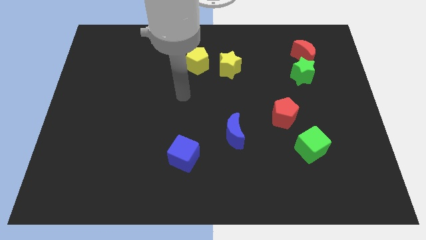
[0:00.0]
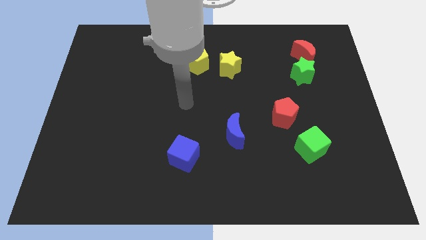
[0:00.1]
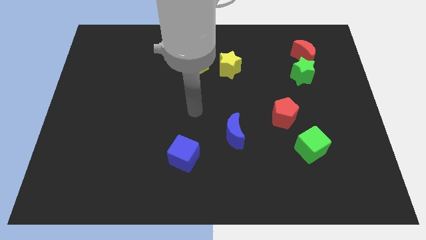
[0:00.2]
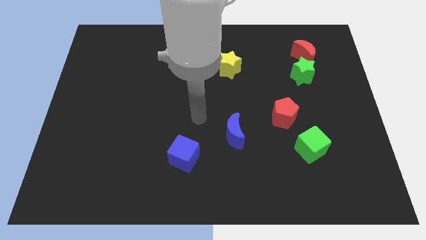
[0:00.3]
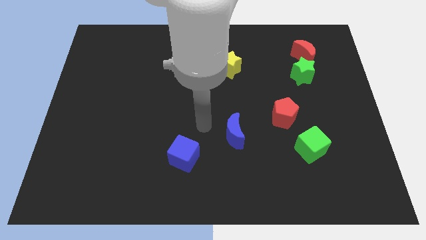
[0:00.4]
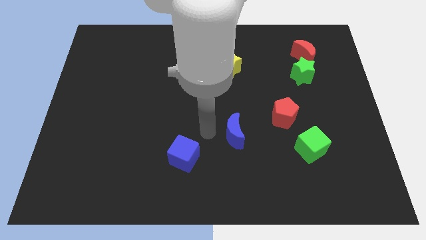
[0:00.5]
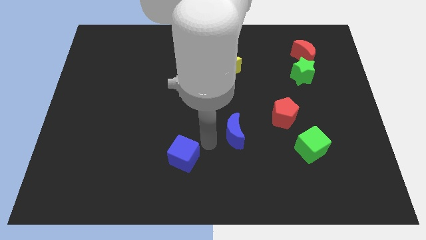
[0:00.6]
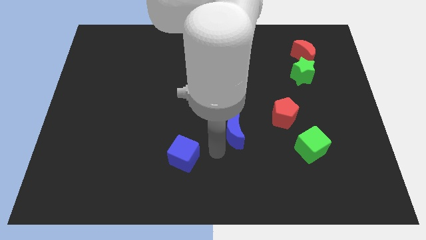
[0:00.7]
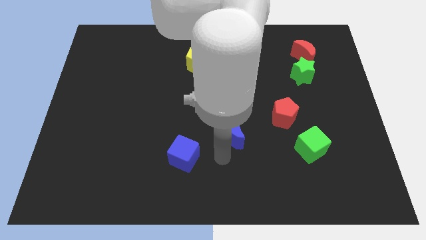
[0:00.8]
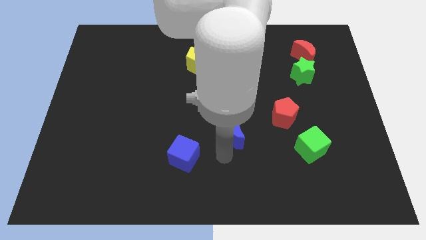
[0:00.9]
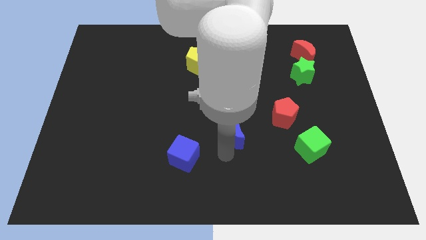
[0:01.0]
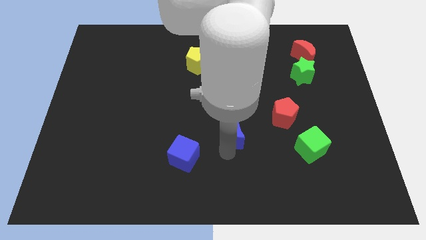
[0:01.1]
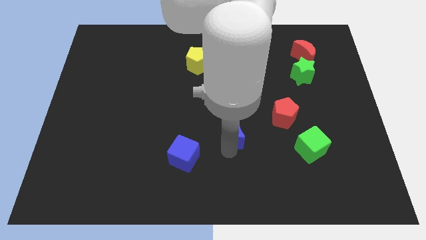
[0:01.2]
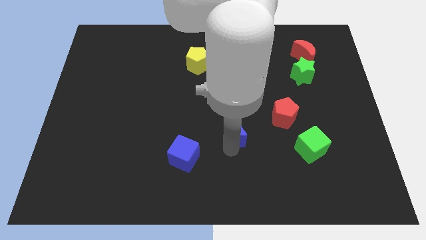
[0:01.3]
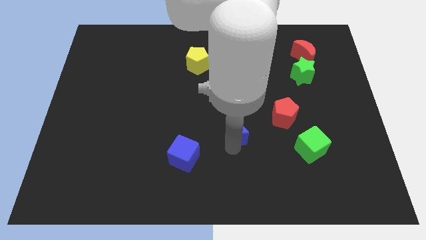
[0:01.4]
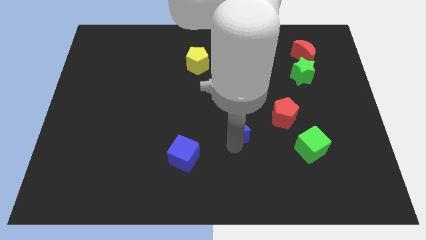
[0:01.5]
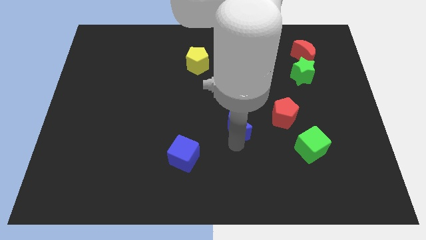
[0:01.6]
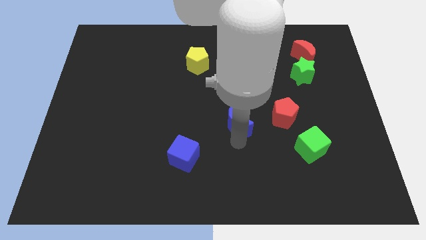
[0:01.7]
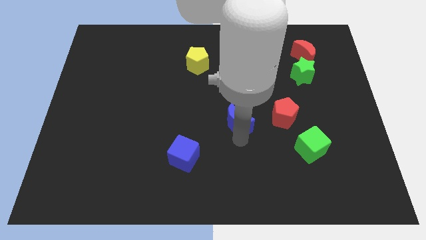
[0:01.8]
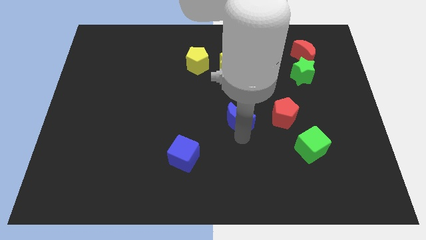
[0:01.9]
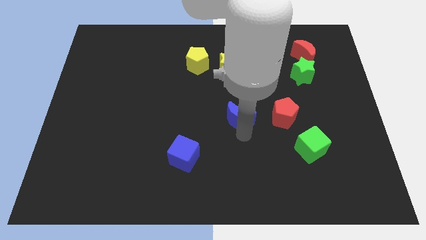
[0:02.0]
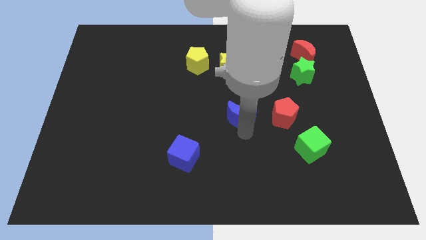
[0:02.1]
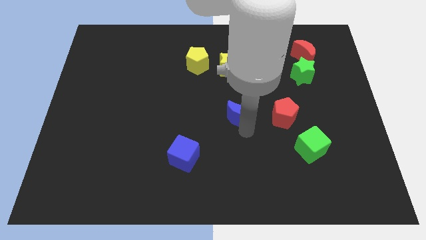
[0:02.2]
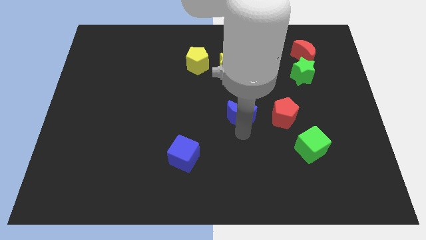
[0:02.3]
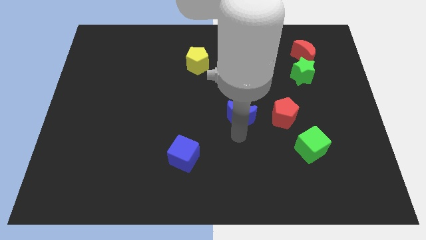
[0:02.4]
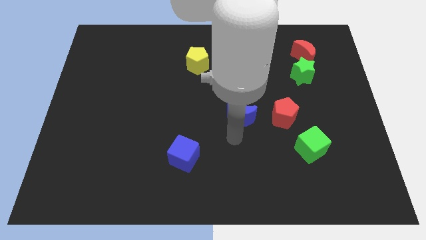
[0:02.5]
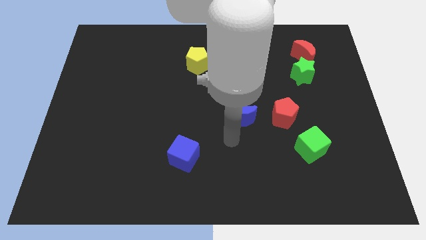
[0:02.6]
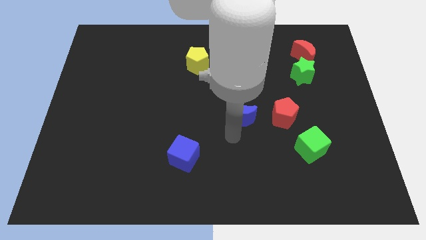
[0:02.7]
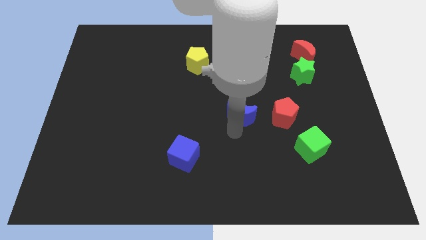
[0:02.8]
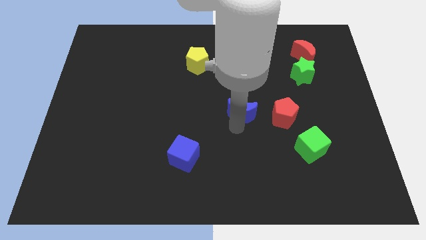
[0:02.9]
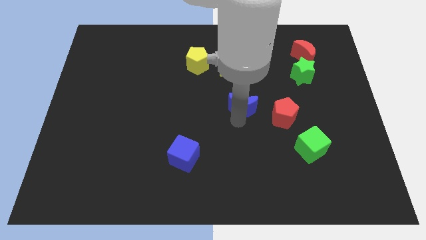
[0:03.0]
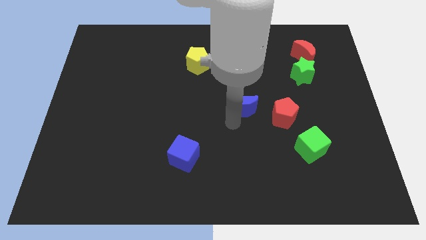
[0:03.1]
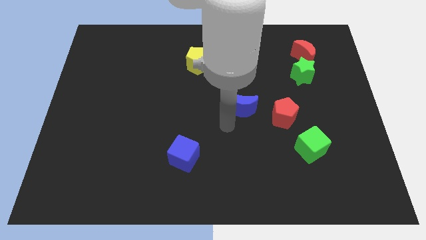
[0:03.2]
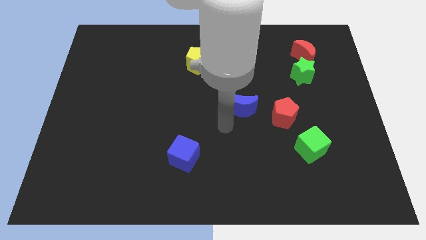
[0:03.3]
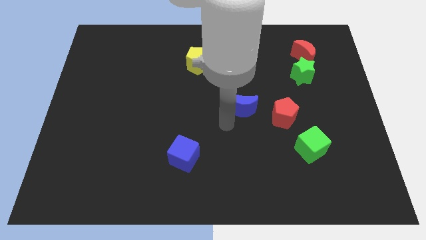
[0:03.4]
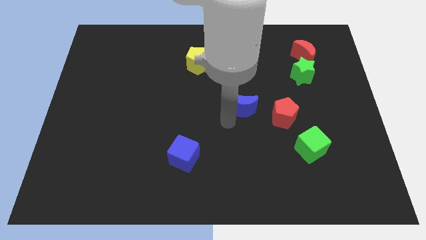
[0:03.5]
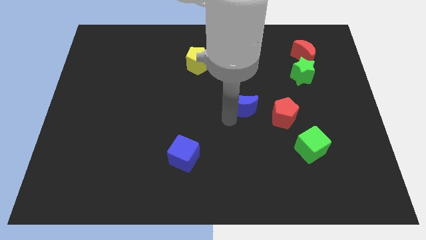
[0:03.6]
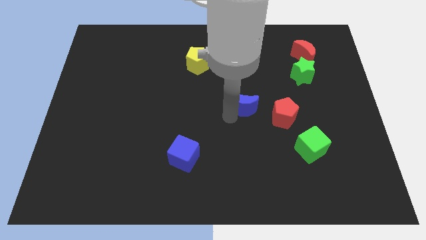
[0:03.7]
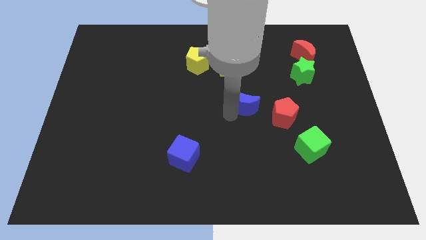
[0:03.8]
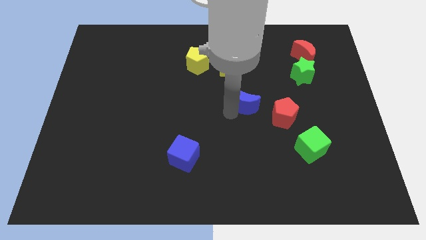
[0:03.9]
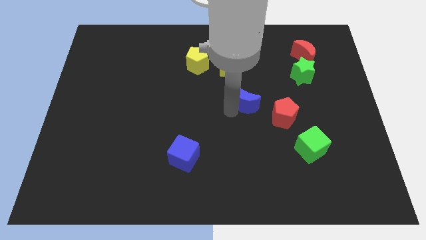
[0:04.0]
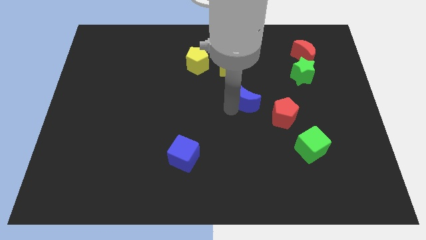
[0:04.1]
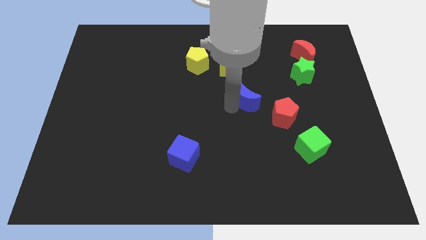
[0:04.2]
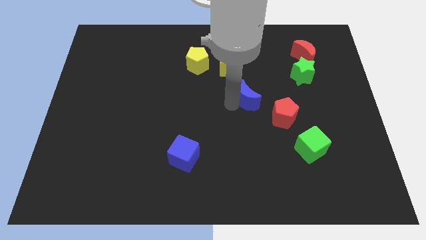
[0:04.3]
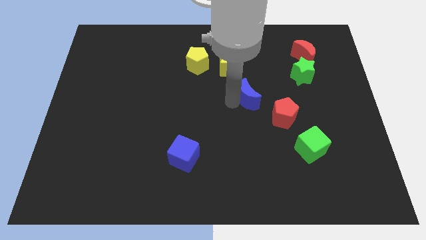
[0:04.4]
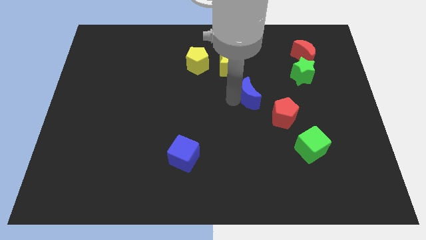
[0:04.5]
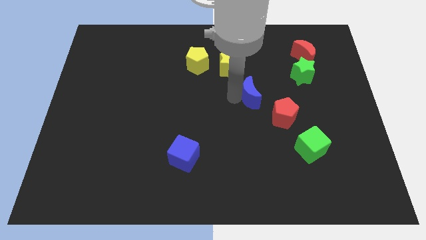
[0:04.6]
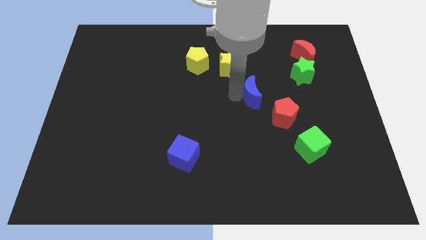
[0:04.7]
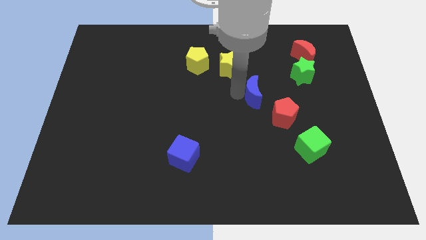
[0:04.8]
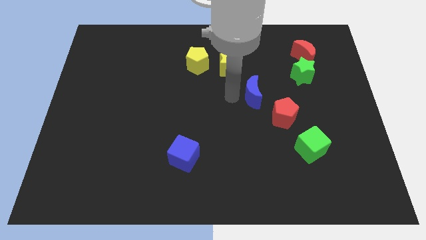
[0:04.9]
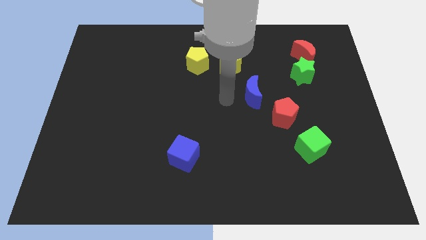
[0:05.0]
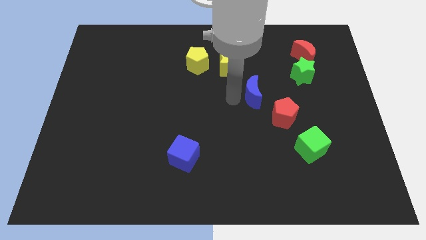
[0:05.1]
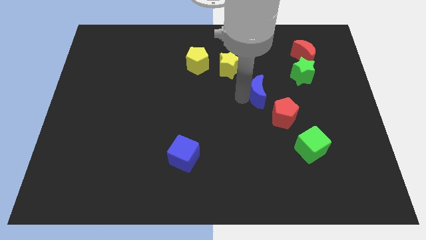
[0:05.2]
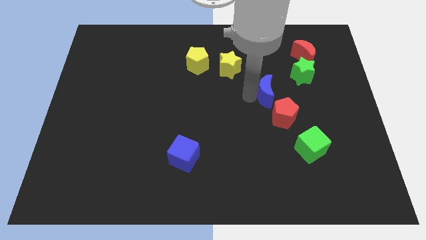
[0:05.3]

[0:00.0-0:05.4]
put the blue moon diagonally down and to the left of the green star

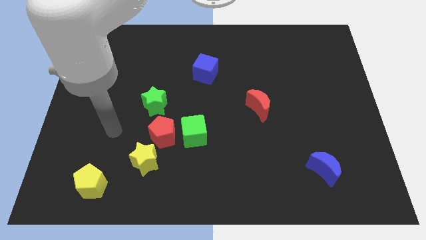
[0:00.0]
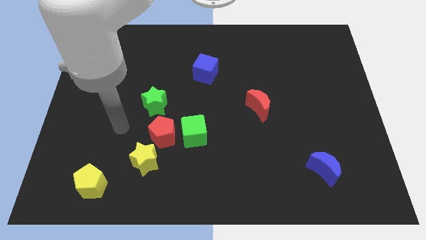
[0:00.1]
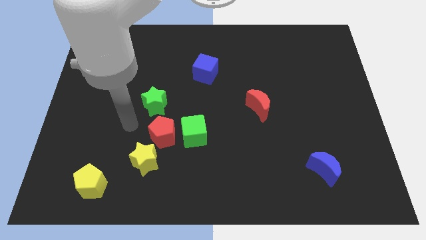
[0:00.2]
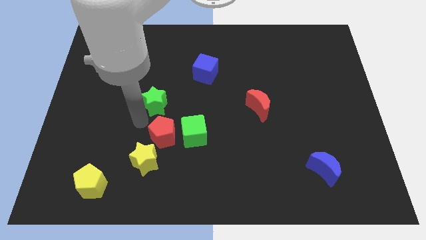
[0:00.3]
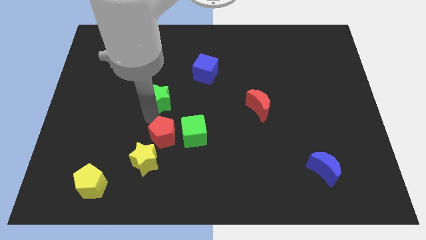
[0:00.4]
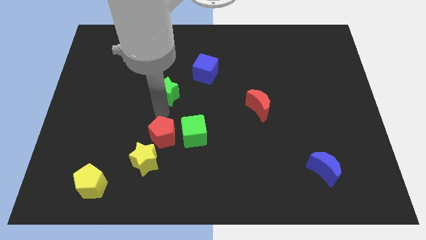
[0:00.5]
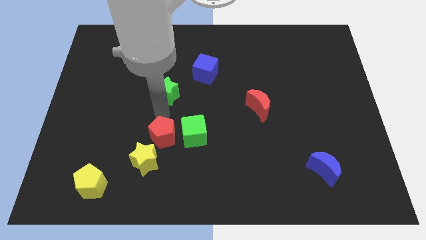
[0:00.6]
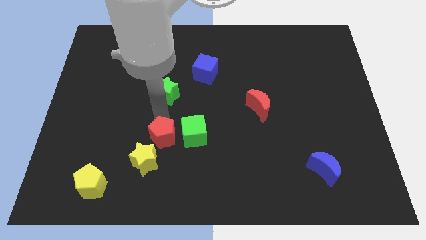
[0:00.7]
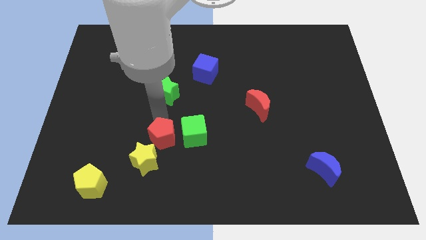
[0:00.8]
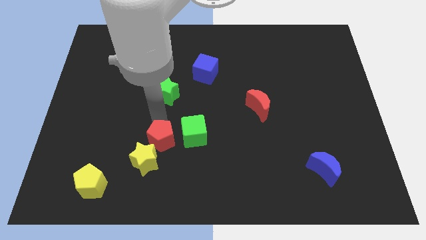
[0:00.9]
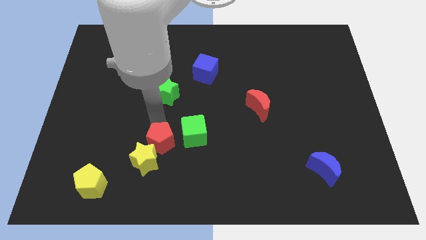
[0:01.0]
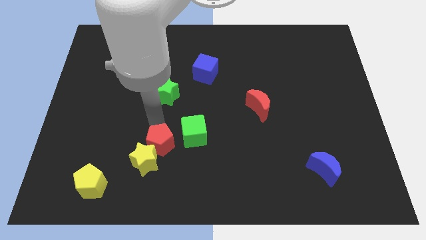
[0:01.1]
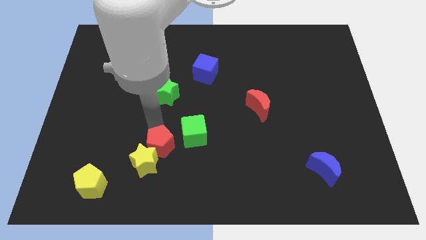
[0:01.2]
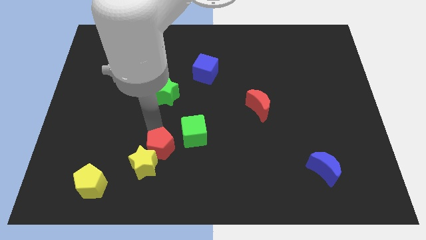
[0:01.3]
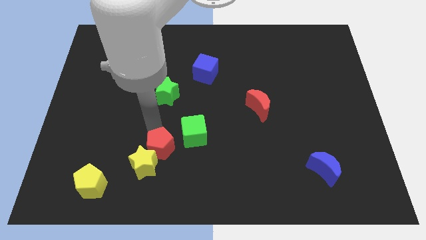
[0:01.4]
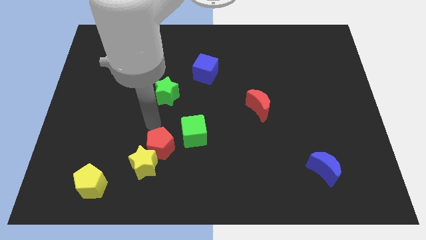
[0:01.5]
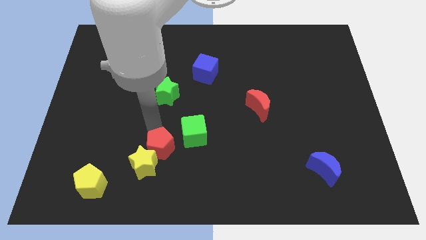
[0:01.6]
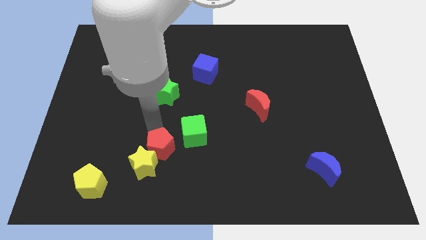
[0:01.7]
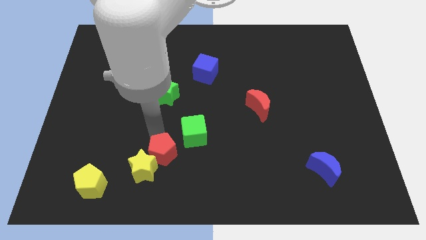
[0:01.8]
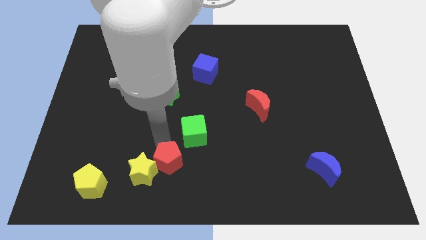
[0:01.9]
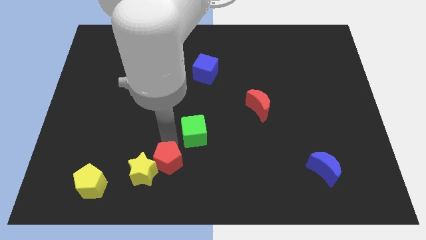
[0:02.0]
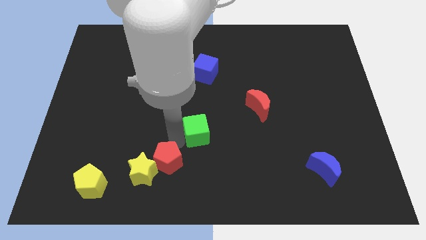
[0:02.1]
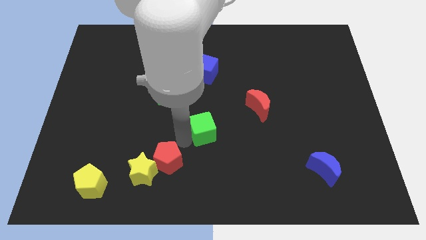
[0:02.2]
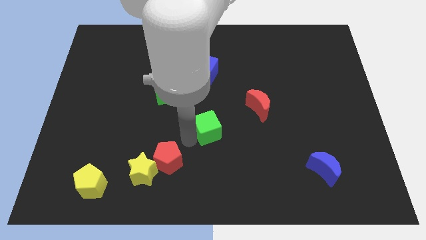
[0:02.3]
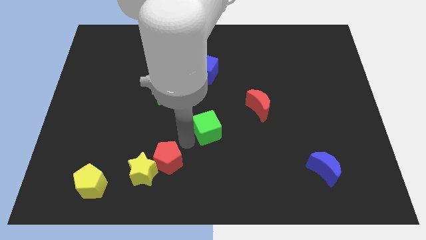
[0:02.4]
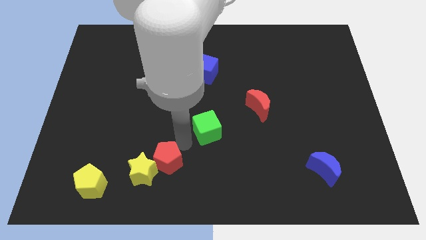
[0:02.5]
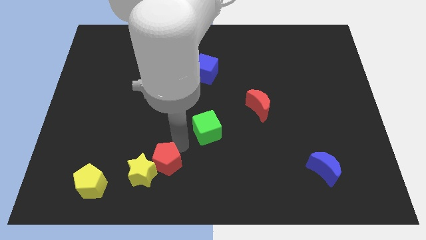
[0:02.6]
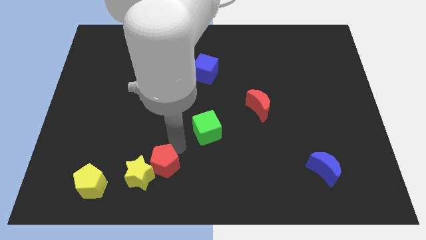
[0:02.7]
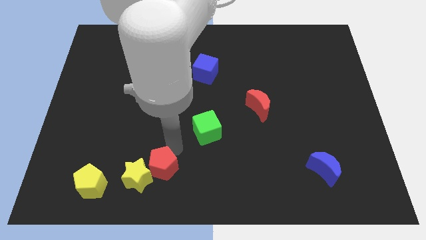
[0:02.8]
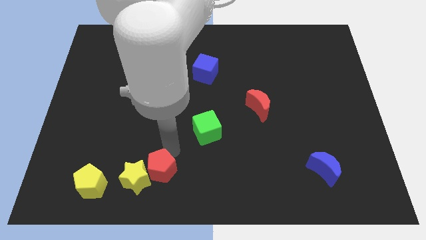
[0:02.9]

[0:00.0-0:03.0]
push the red pentagon just right of the yellow pentagon
